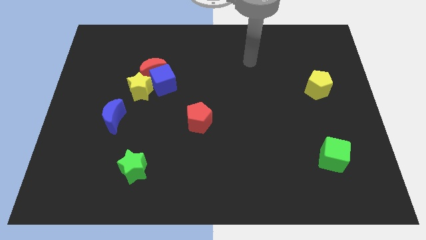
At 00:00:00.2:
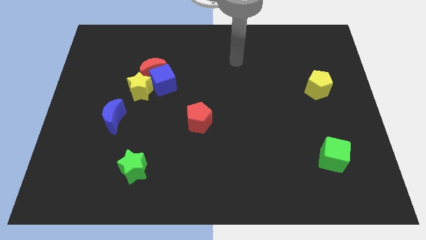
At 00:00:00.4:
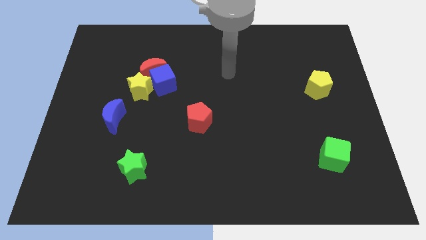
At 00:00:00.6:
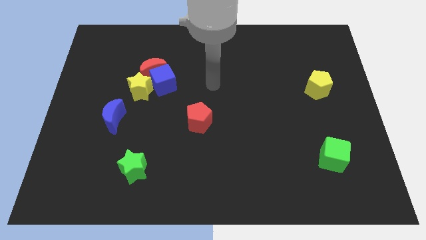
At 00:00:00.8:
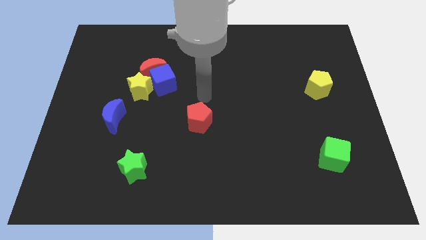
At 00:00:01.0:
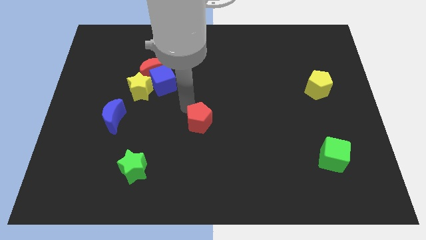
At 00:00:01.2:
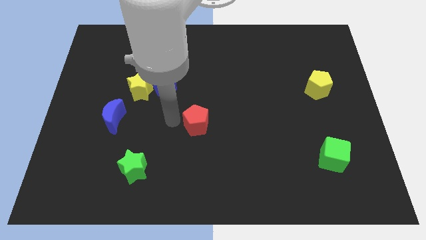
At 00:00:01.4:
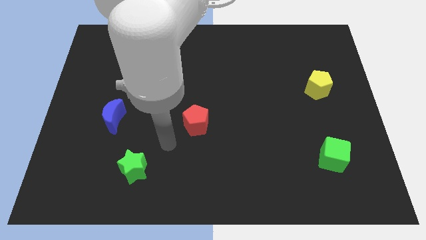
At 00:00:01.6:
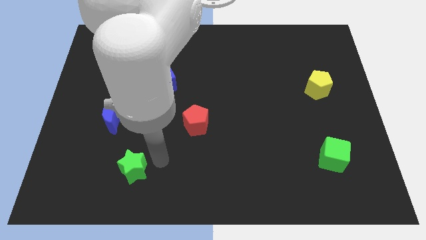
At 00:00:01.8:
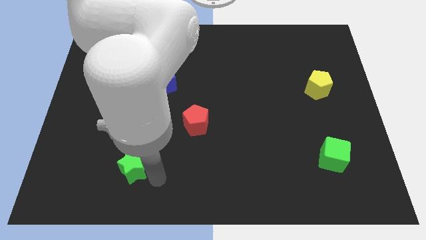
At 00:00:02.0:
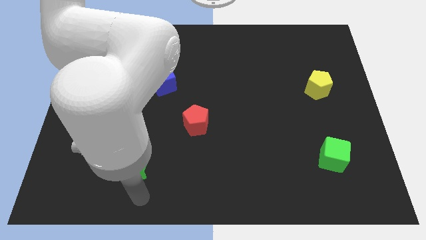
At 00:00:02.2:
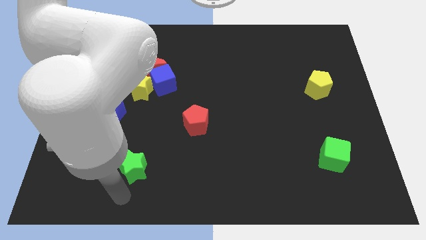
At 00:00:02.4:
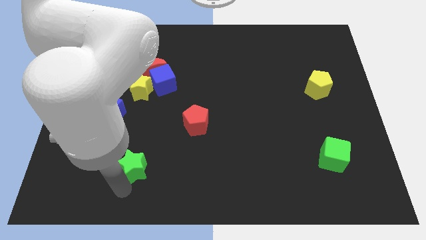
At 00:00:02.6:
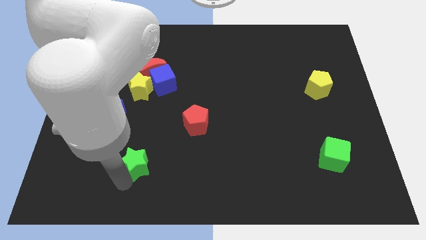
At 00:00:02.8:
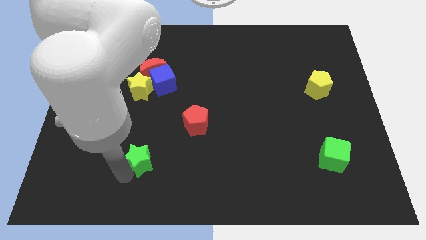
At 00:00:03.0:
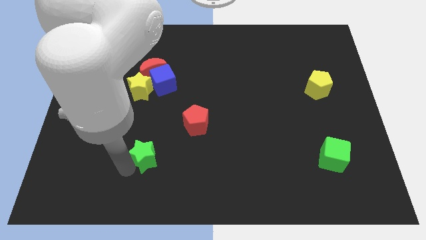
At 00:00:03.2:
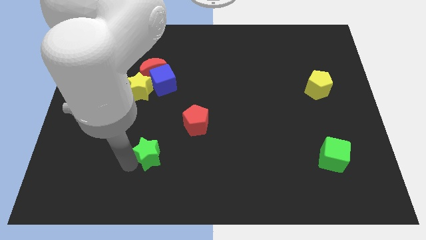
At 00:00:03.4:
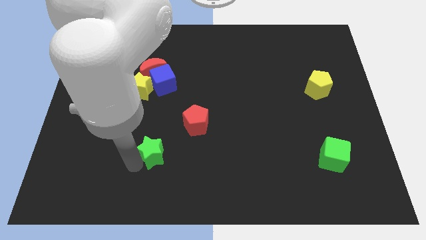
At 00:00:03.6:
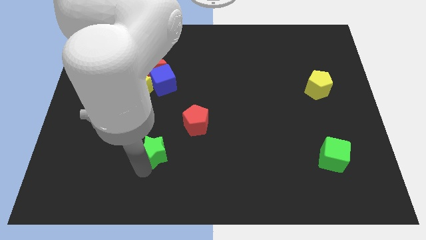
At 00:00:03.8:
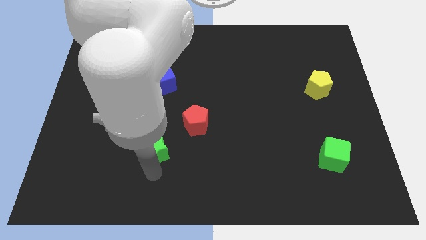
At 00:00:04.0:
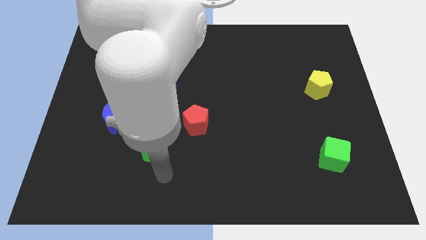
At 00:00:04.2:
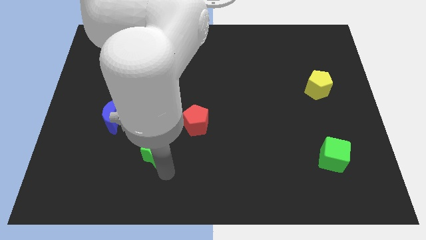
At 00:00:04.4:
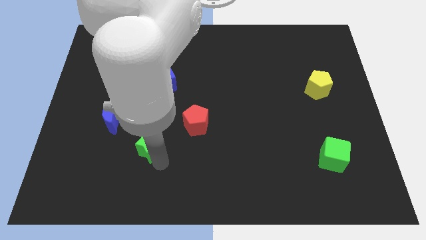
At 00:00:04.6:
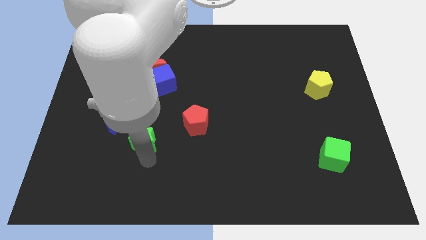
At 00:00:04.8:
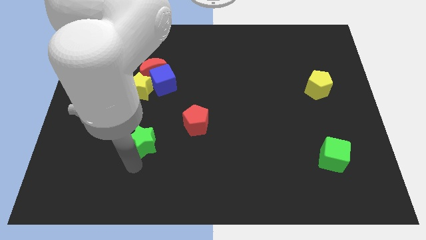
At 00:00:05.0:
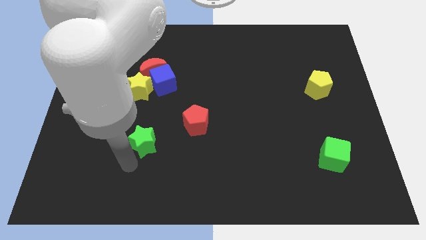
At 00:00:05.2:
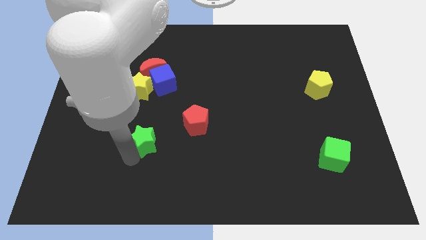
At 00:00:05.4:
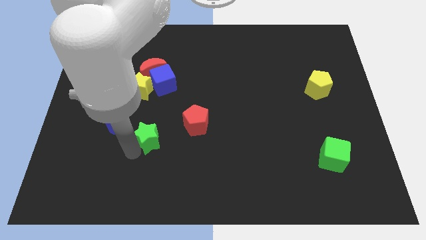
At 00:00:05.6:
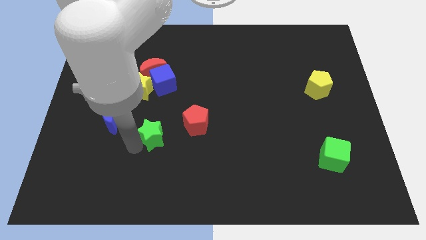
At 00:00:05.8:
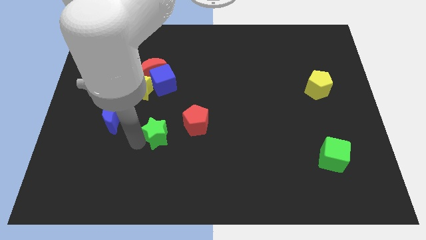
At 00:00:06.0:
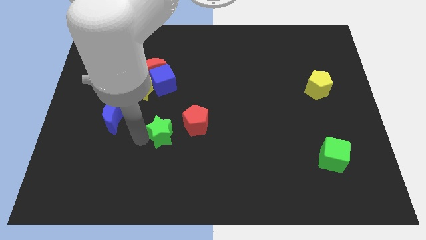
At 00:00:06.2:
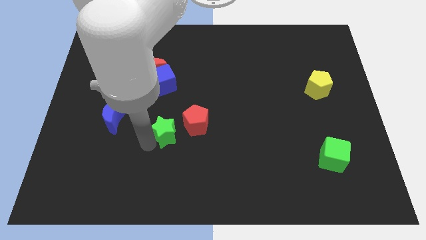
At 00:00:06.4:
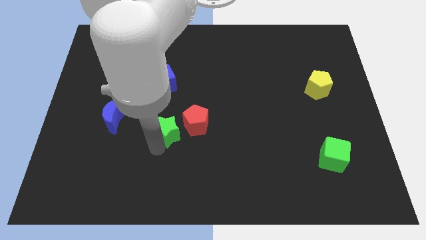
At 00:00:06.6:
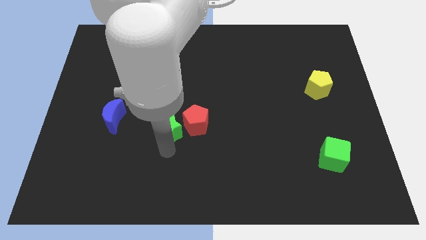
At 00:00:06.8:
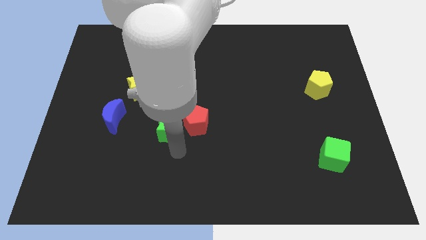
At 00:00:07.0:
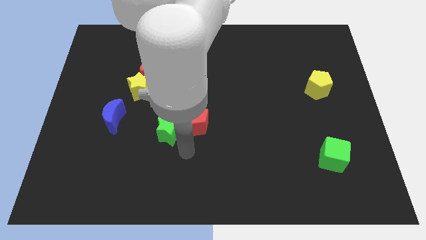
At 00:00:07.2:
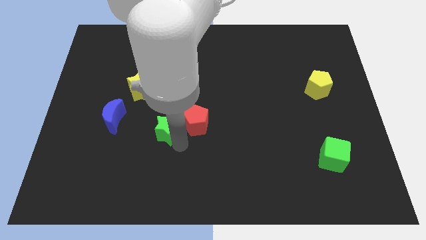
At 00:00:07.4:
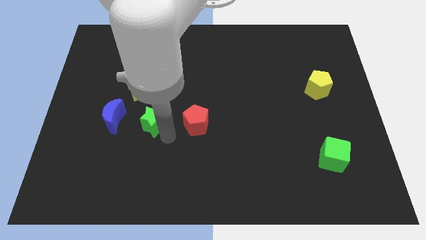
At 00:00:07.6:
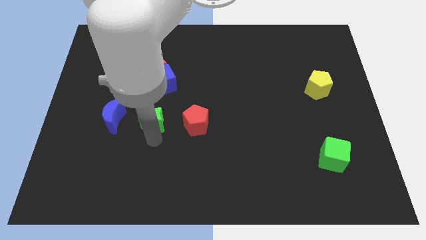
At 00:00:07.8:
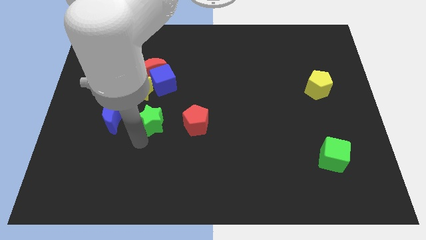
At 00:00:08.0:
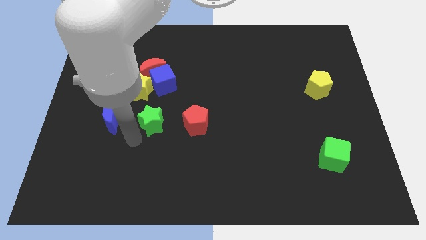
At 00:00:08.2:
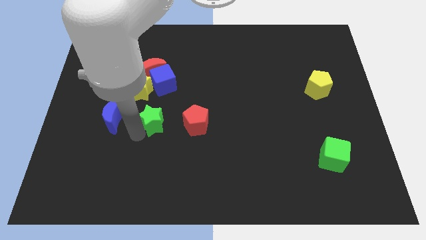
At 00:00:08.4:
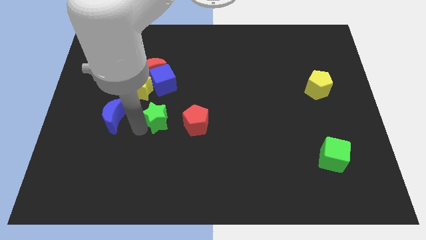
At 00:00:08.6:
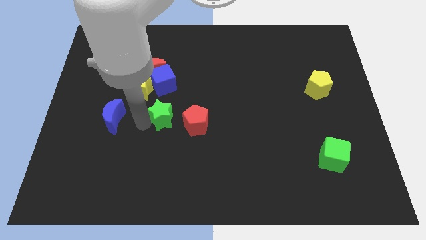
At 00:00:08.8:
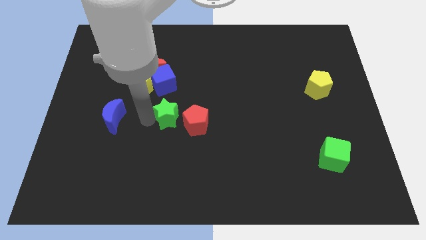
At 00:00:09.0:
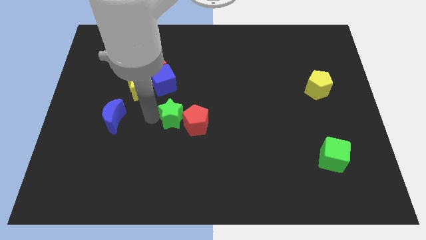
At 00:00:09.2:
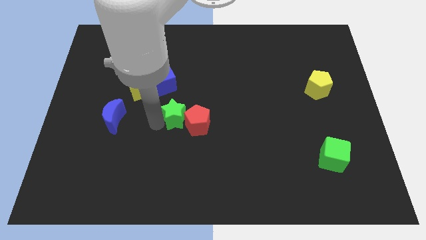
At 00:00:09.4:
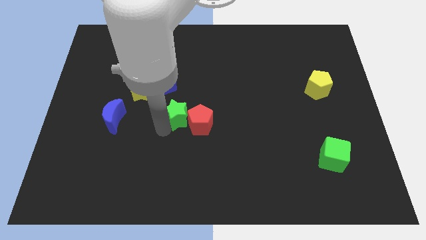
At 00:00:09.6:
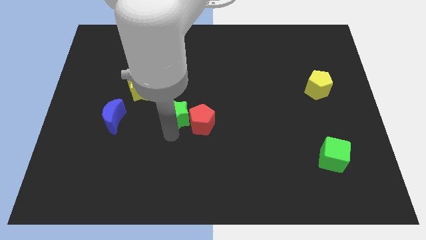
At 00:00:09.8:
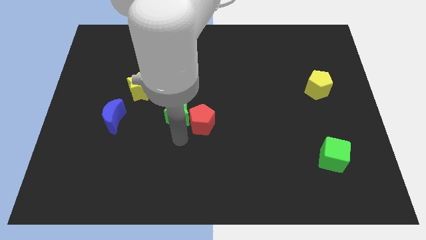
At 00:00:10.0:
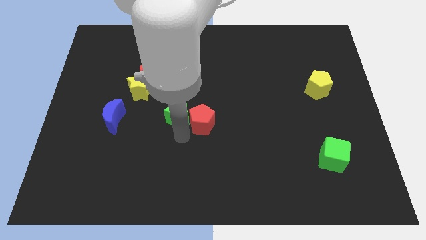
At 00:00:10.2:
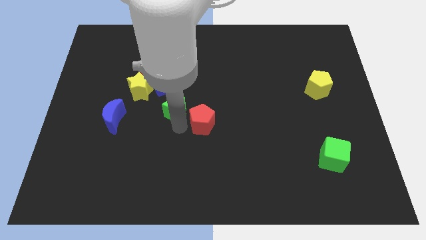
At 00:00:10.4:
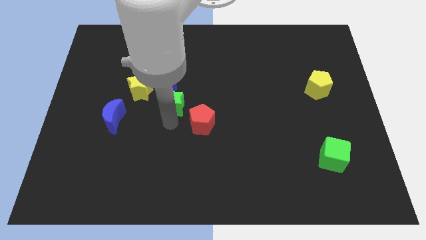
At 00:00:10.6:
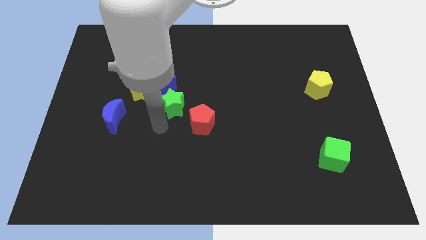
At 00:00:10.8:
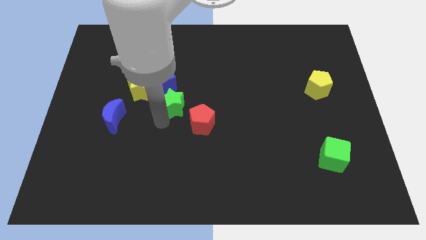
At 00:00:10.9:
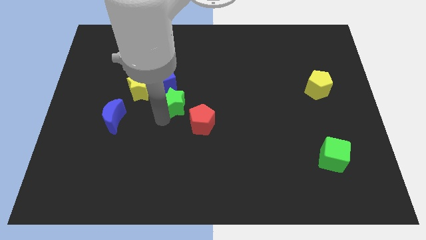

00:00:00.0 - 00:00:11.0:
put the green star to the right side of the yellow star

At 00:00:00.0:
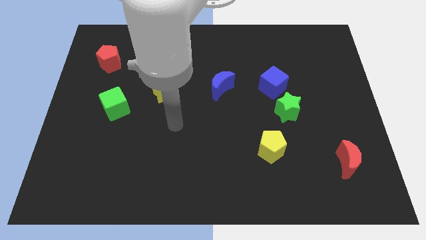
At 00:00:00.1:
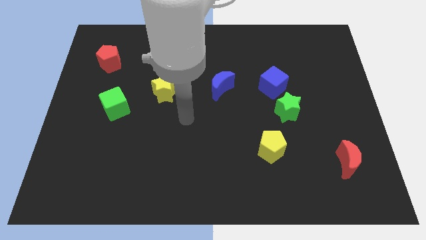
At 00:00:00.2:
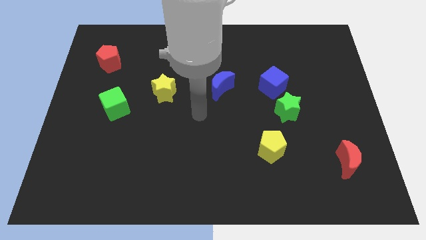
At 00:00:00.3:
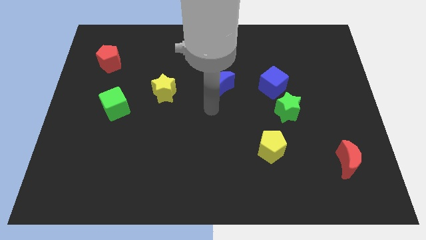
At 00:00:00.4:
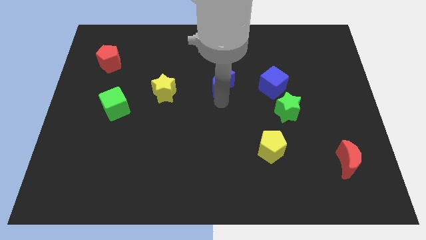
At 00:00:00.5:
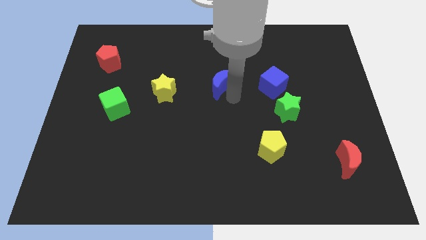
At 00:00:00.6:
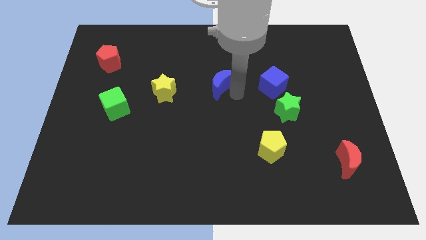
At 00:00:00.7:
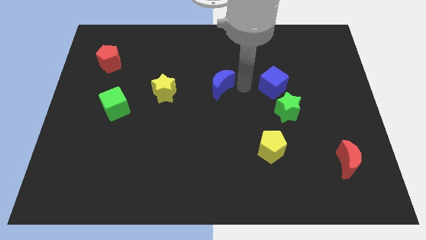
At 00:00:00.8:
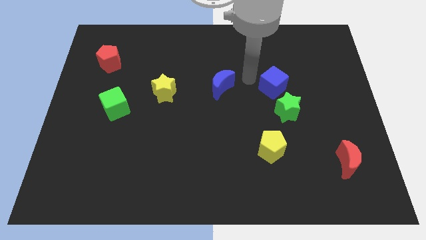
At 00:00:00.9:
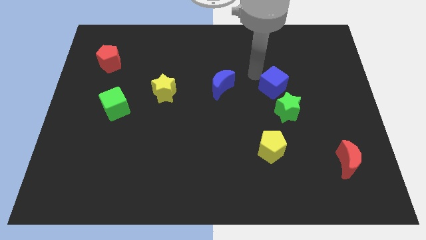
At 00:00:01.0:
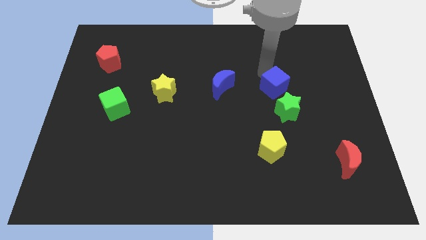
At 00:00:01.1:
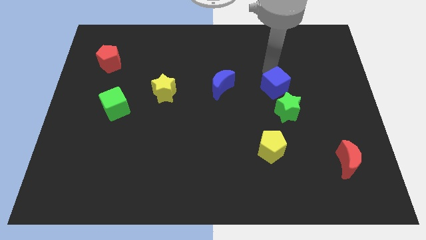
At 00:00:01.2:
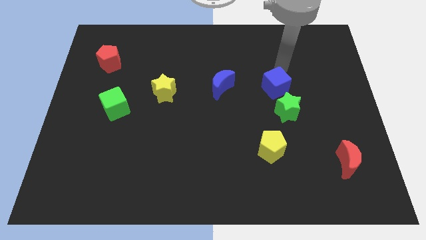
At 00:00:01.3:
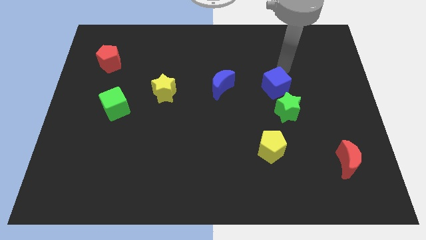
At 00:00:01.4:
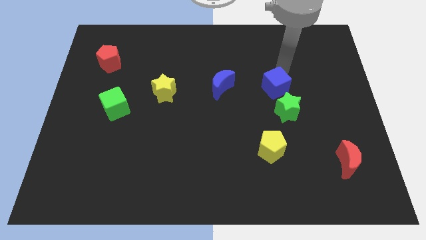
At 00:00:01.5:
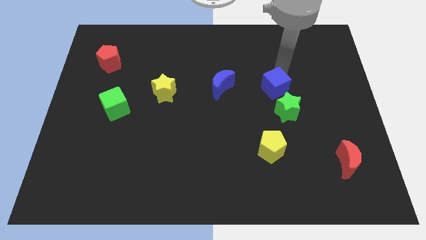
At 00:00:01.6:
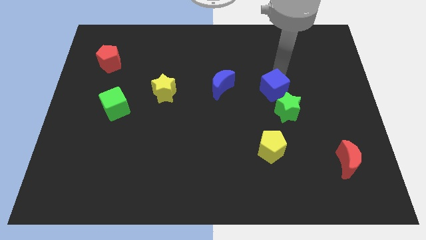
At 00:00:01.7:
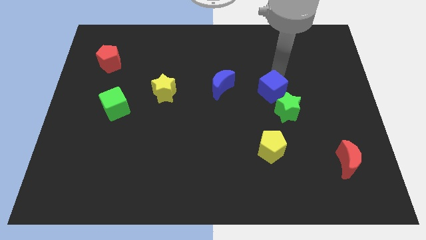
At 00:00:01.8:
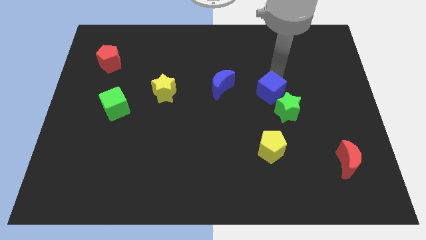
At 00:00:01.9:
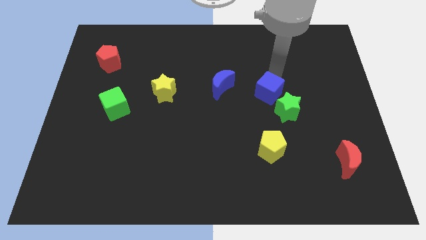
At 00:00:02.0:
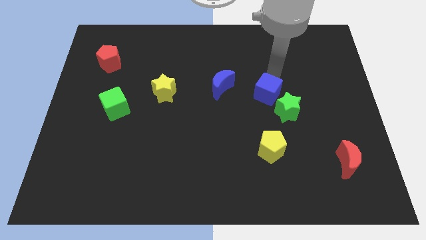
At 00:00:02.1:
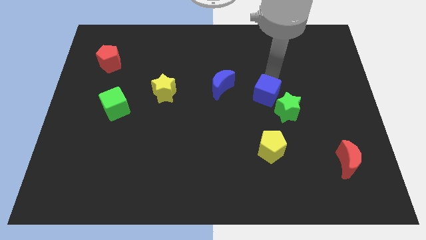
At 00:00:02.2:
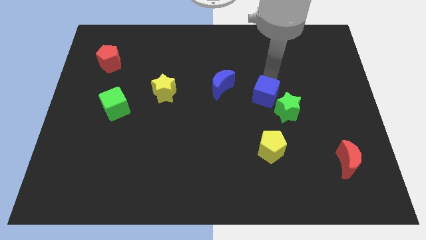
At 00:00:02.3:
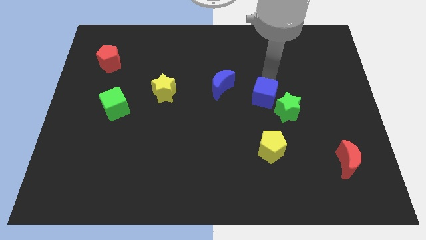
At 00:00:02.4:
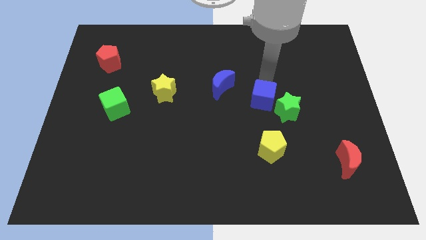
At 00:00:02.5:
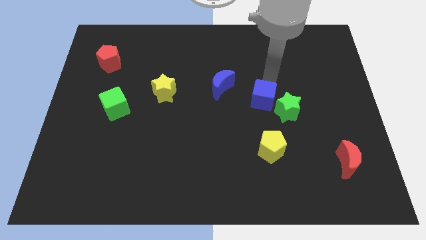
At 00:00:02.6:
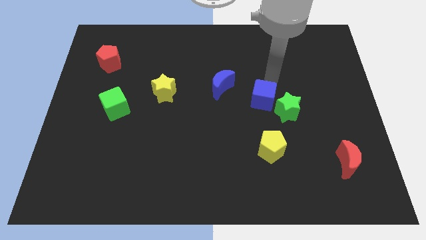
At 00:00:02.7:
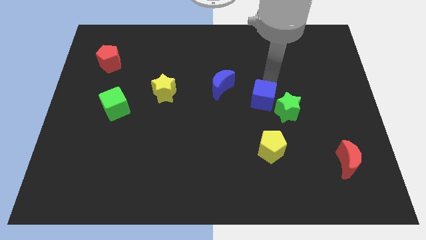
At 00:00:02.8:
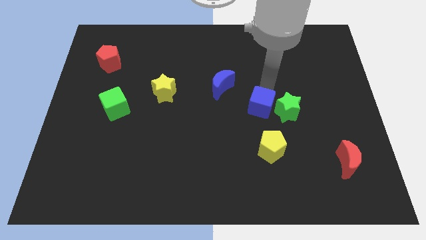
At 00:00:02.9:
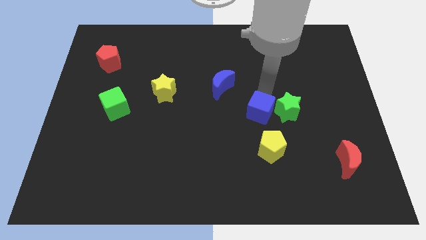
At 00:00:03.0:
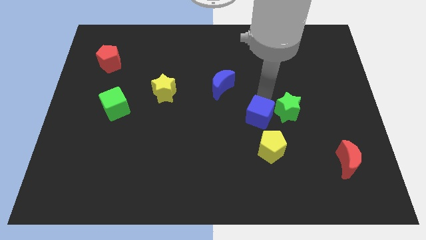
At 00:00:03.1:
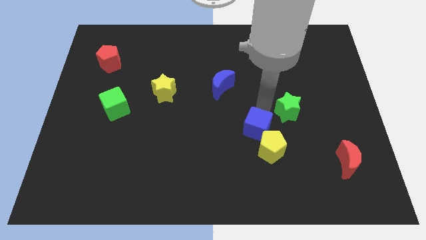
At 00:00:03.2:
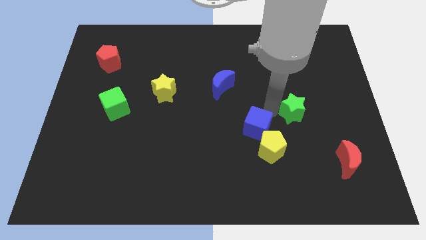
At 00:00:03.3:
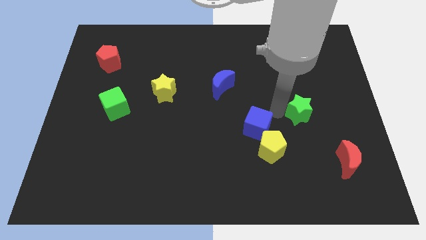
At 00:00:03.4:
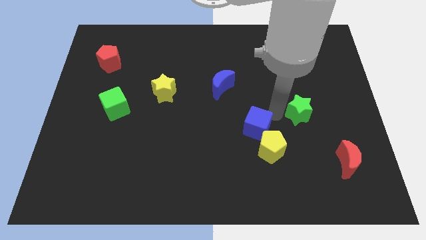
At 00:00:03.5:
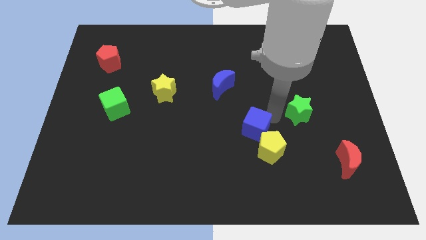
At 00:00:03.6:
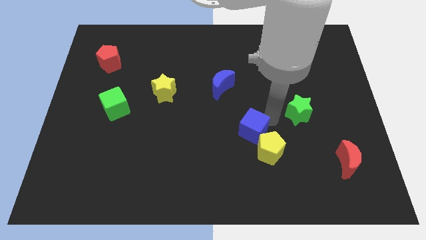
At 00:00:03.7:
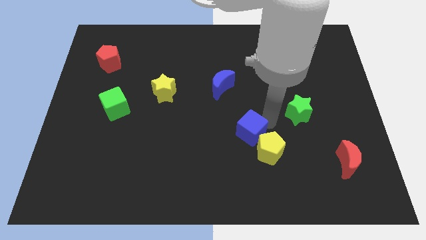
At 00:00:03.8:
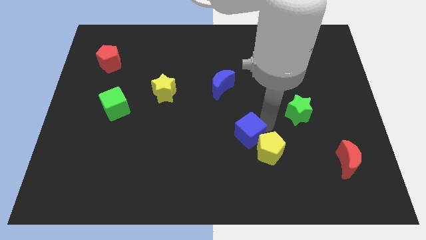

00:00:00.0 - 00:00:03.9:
put the blue cube to the left of the yellow pentagon
